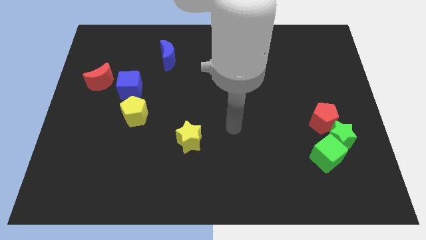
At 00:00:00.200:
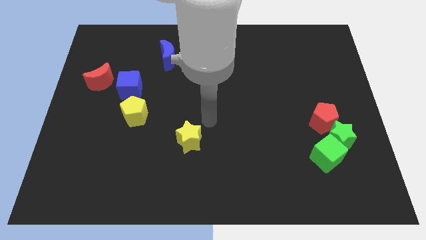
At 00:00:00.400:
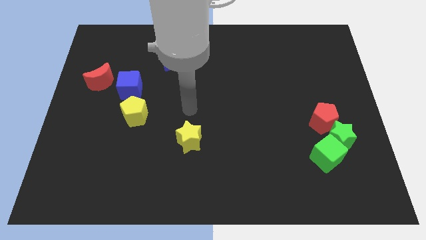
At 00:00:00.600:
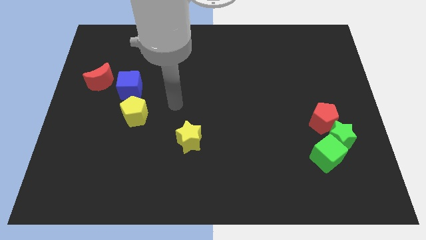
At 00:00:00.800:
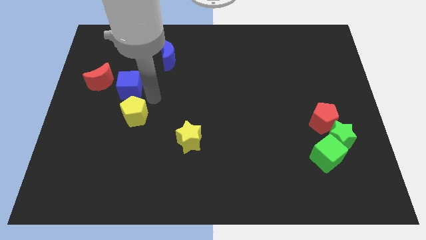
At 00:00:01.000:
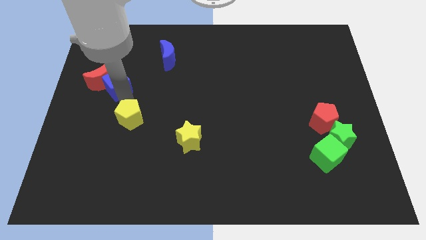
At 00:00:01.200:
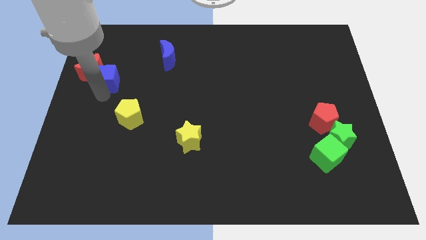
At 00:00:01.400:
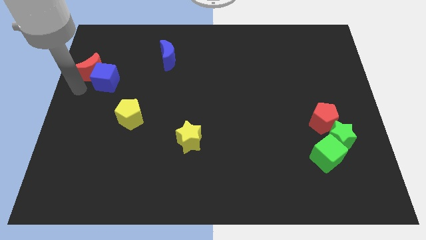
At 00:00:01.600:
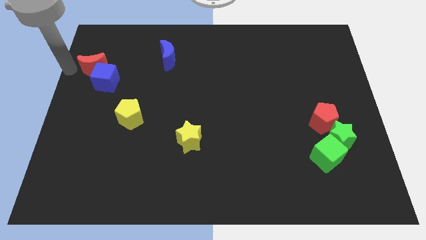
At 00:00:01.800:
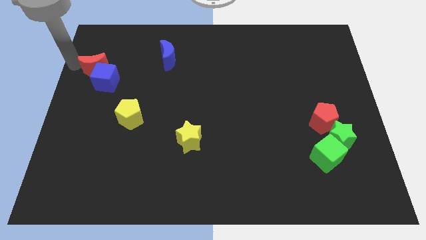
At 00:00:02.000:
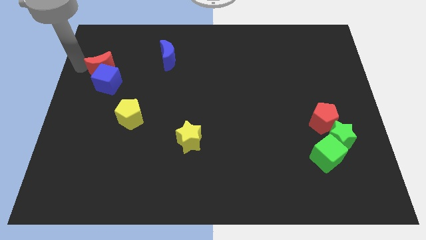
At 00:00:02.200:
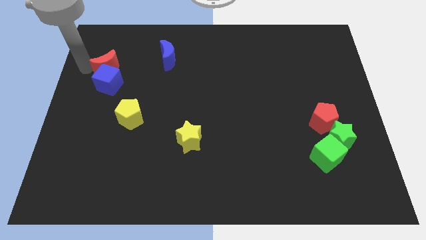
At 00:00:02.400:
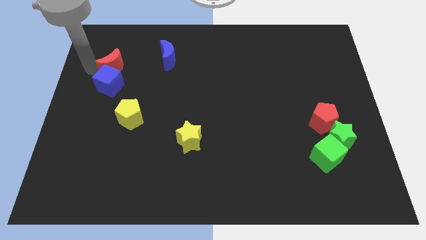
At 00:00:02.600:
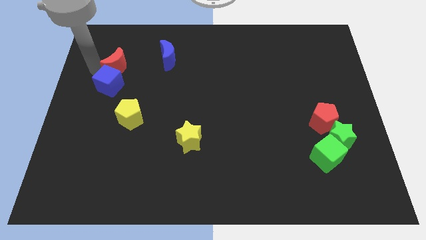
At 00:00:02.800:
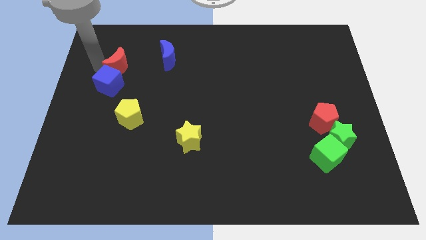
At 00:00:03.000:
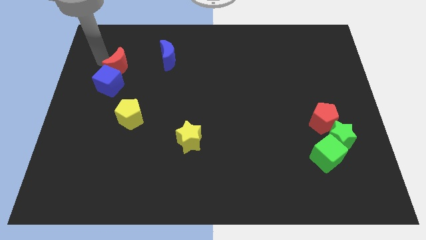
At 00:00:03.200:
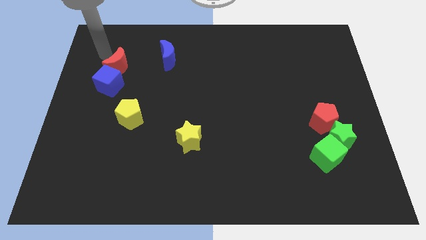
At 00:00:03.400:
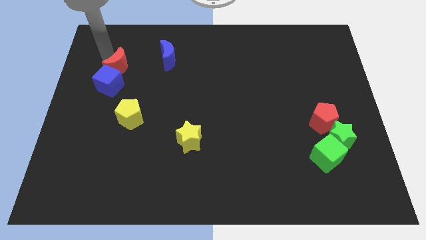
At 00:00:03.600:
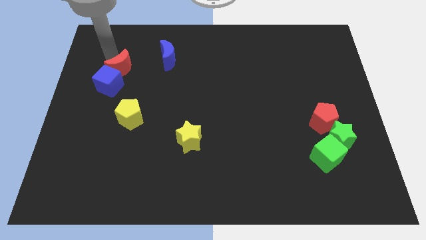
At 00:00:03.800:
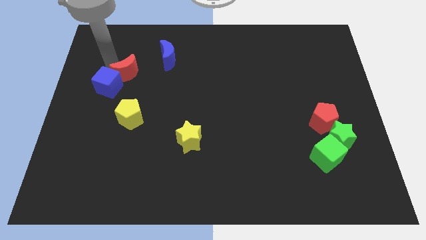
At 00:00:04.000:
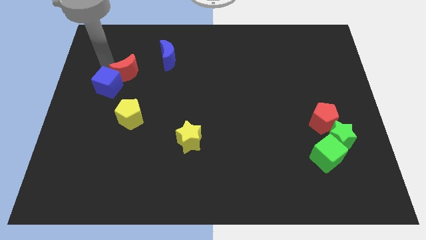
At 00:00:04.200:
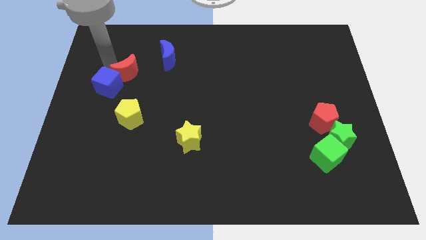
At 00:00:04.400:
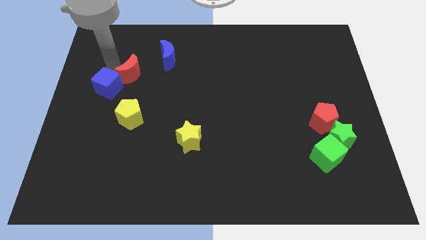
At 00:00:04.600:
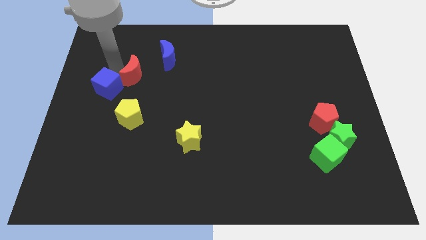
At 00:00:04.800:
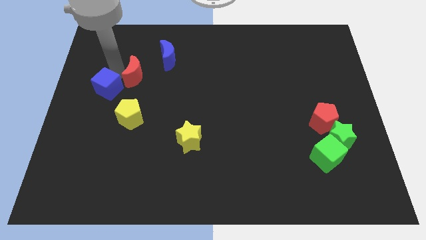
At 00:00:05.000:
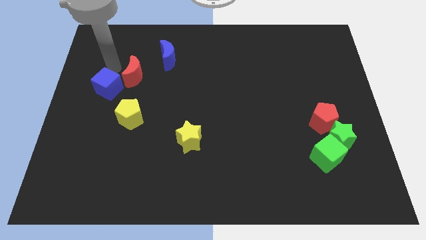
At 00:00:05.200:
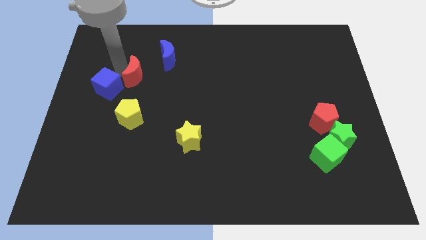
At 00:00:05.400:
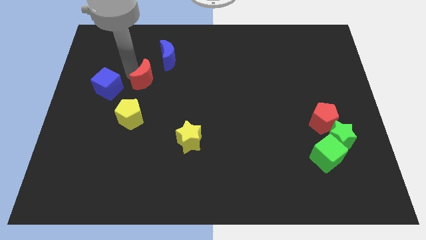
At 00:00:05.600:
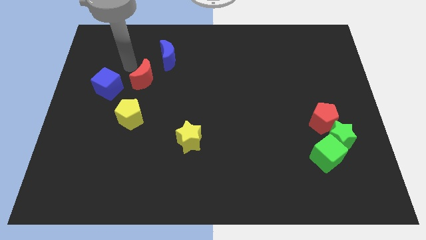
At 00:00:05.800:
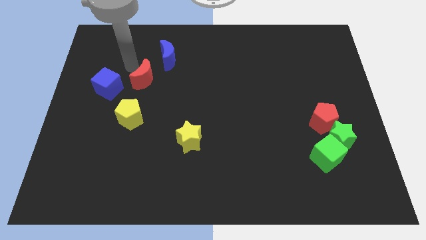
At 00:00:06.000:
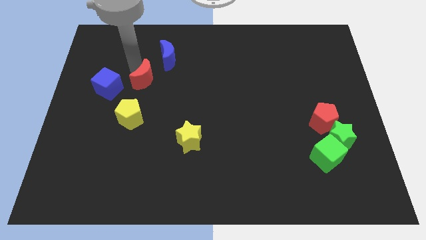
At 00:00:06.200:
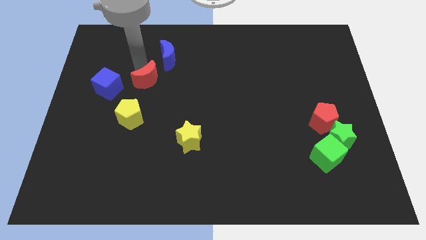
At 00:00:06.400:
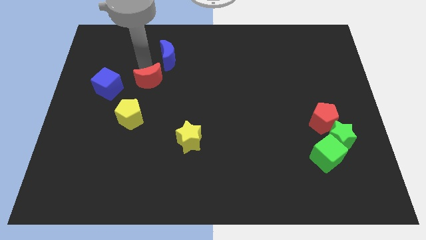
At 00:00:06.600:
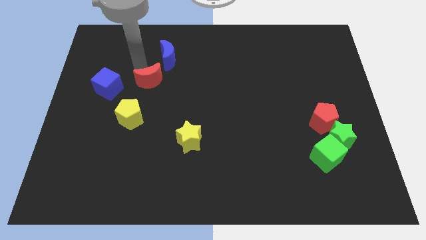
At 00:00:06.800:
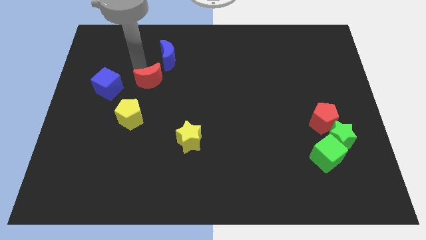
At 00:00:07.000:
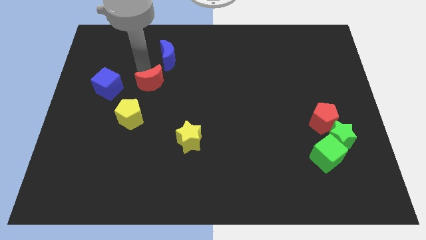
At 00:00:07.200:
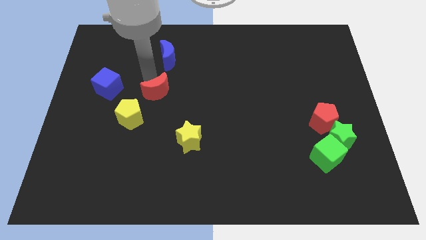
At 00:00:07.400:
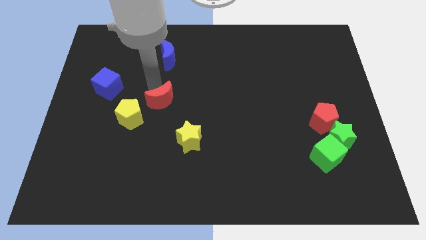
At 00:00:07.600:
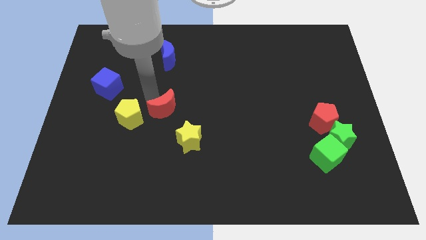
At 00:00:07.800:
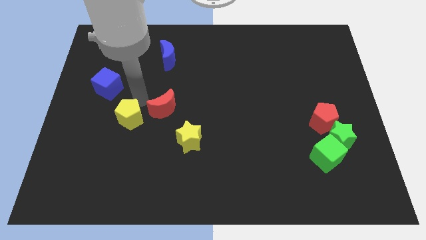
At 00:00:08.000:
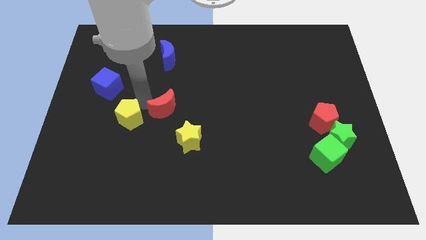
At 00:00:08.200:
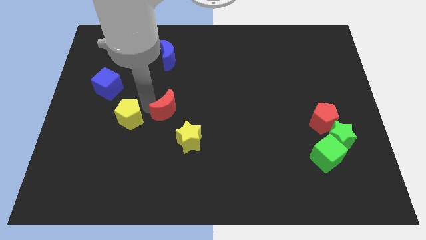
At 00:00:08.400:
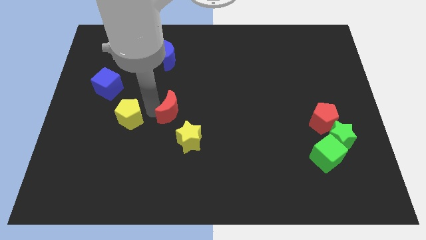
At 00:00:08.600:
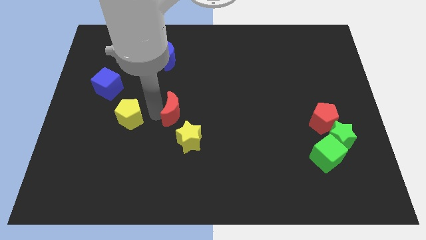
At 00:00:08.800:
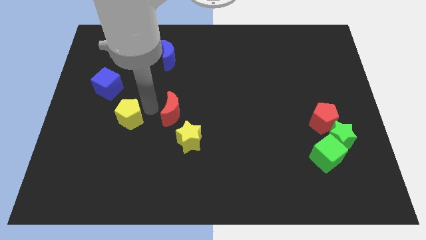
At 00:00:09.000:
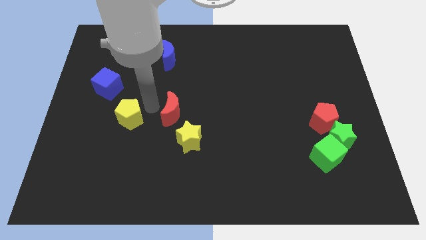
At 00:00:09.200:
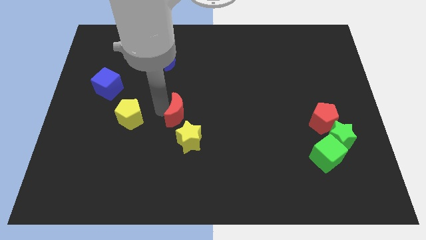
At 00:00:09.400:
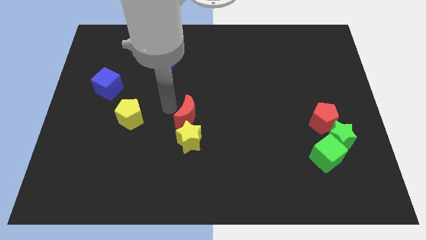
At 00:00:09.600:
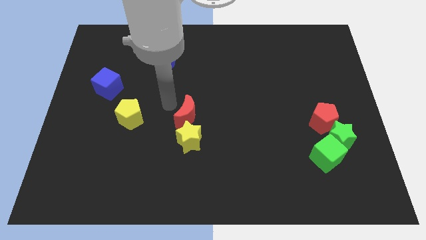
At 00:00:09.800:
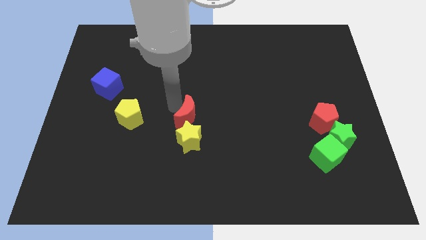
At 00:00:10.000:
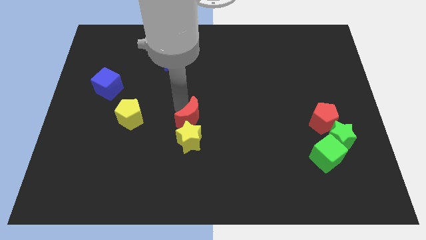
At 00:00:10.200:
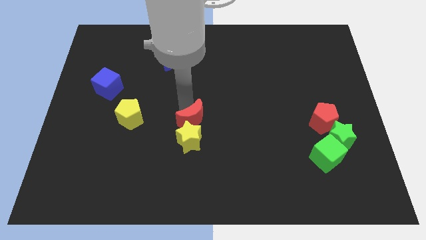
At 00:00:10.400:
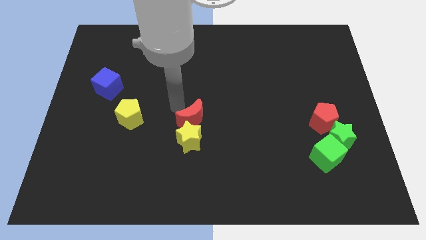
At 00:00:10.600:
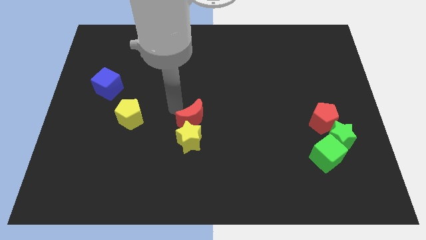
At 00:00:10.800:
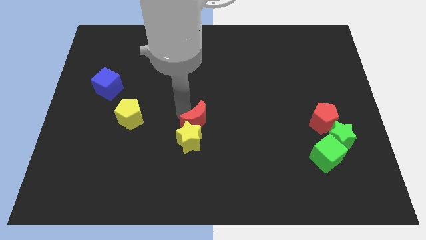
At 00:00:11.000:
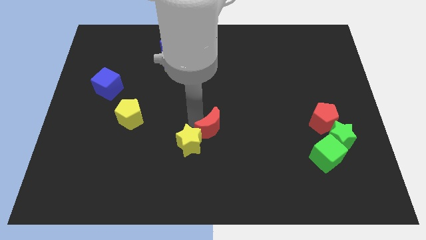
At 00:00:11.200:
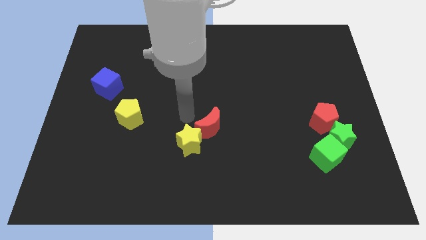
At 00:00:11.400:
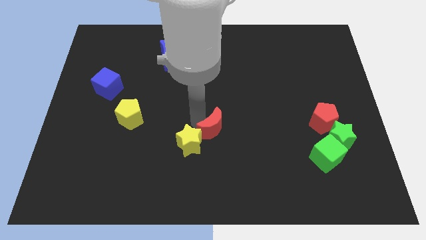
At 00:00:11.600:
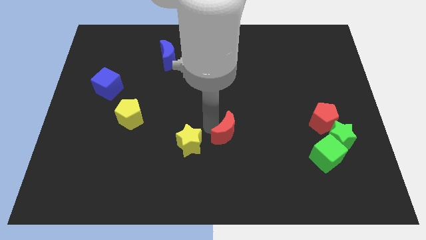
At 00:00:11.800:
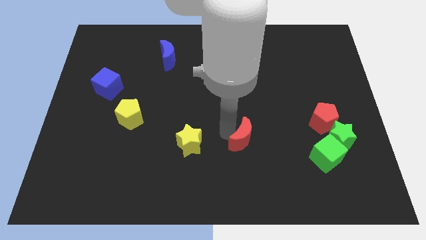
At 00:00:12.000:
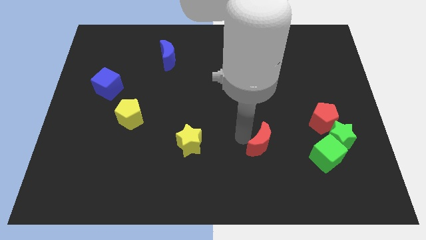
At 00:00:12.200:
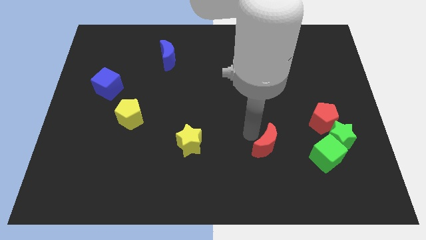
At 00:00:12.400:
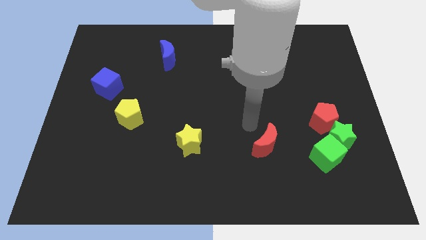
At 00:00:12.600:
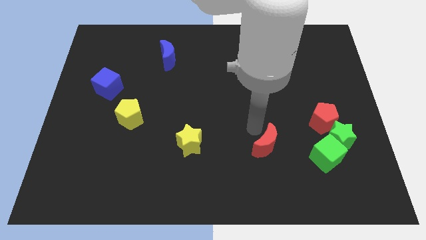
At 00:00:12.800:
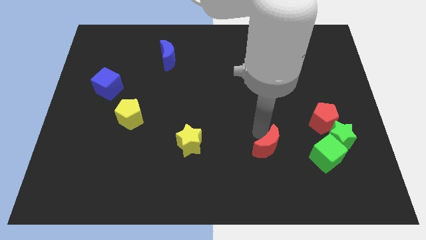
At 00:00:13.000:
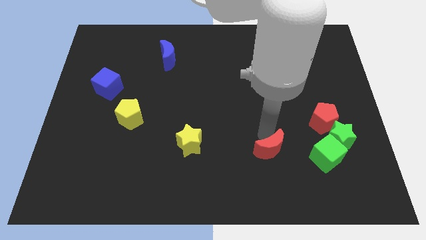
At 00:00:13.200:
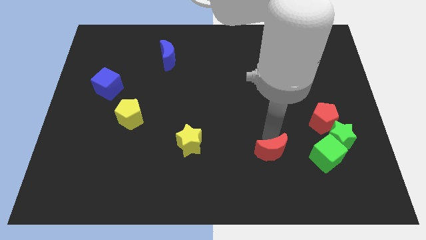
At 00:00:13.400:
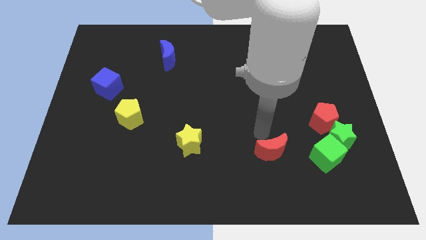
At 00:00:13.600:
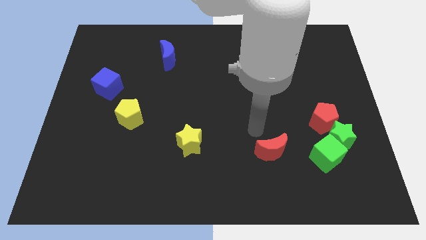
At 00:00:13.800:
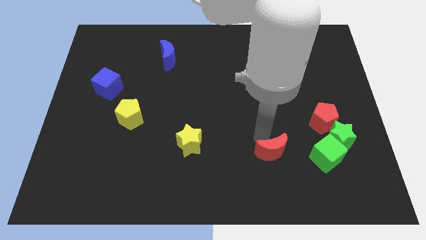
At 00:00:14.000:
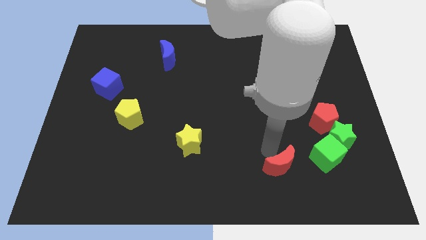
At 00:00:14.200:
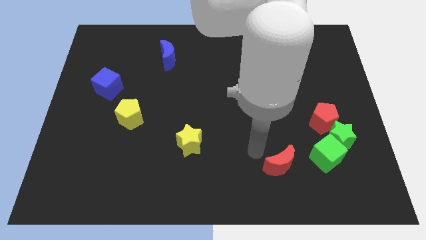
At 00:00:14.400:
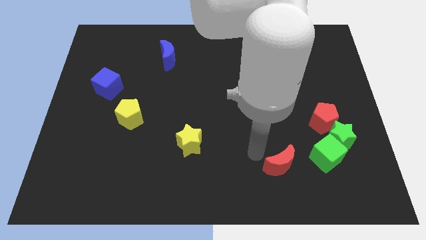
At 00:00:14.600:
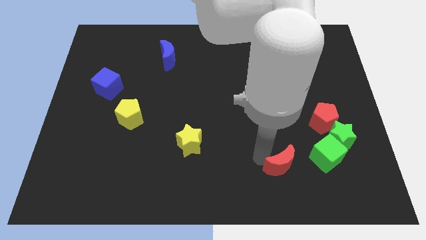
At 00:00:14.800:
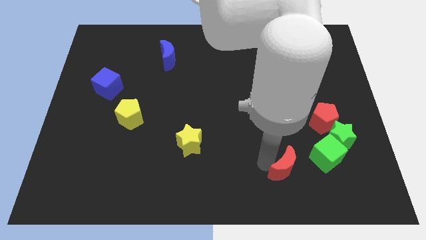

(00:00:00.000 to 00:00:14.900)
put the red moon diagonally down and to the left of the green cube
